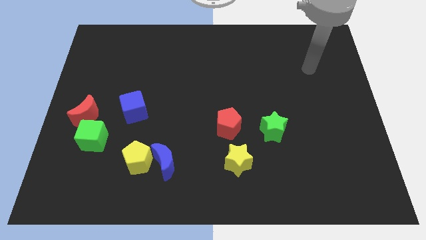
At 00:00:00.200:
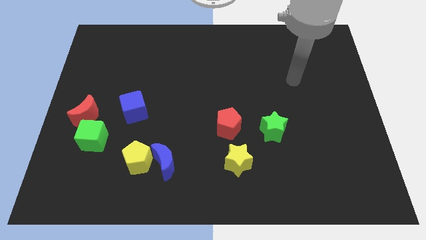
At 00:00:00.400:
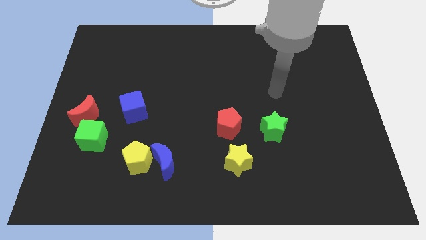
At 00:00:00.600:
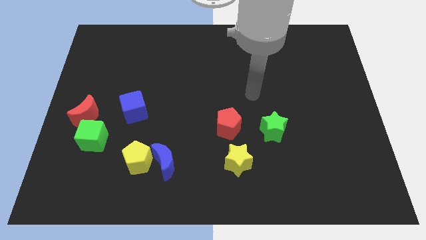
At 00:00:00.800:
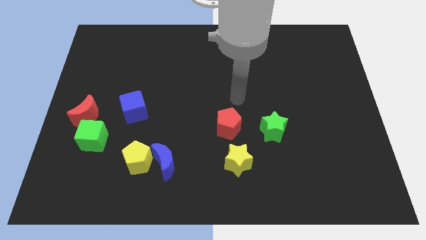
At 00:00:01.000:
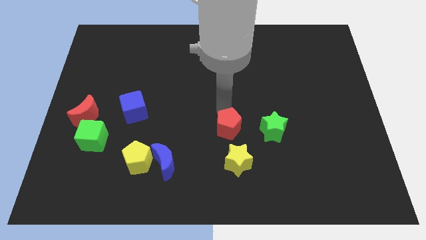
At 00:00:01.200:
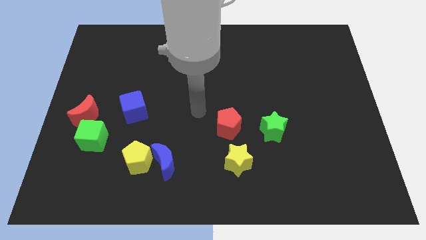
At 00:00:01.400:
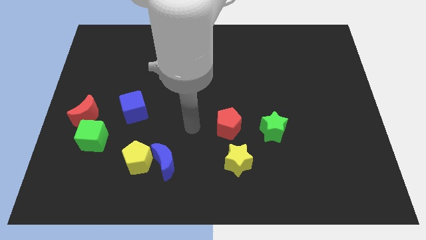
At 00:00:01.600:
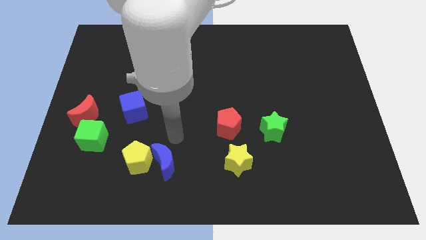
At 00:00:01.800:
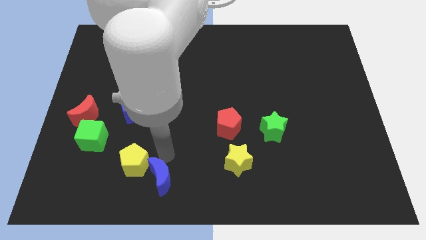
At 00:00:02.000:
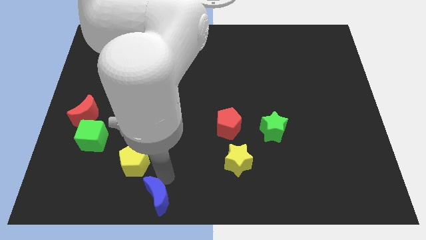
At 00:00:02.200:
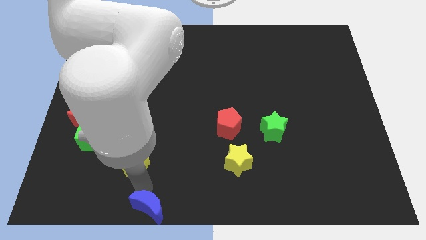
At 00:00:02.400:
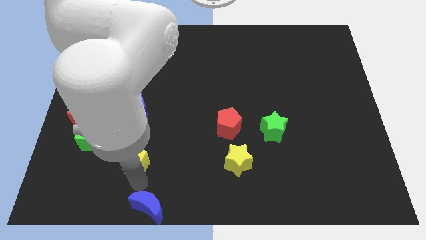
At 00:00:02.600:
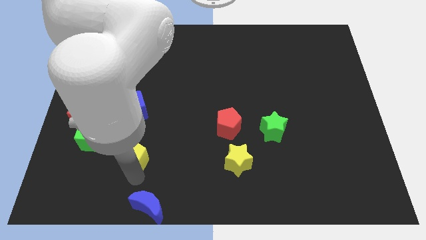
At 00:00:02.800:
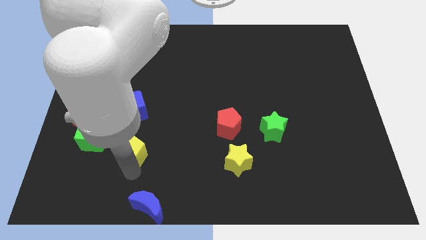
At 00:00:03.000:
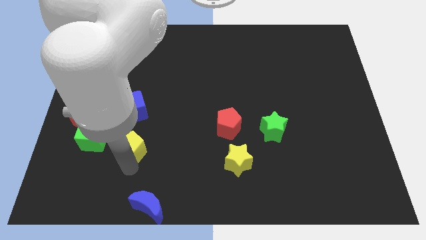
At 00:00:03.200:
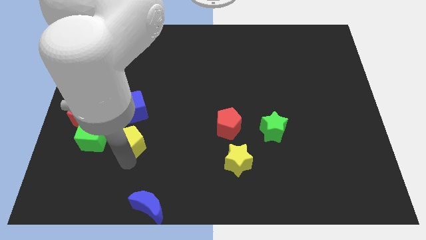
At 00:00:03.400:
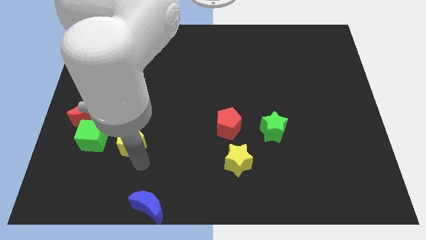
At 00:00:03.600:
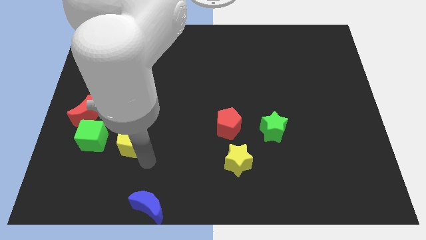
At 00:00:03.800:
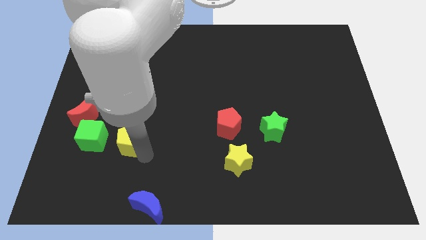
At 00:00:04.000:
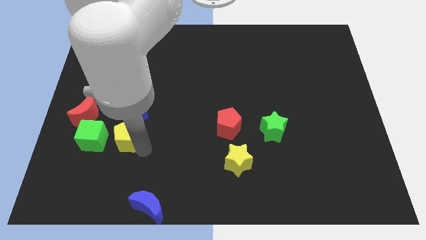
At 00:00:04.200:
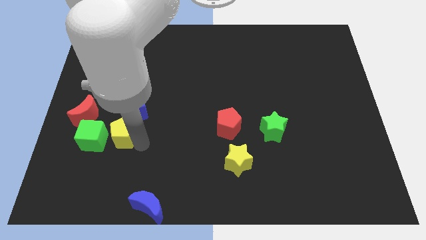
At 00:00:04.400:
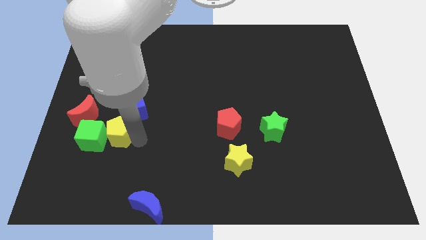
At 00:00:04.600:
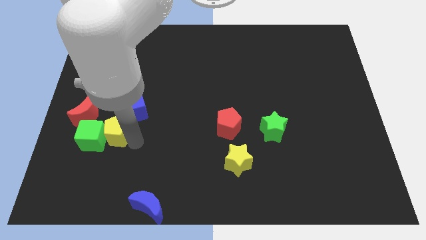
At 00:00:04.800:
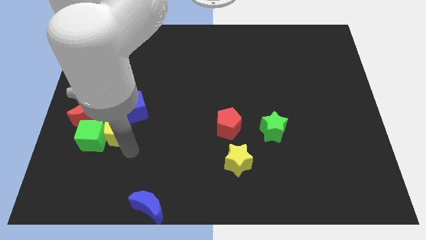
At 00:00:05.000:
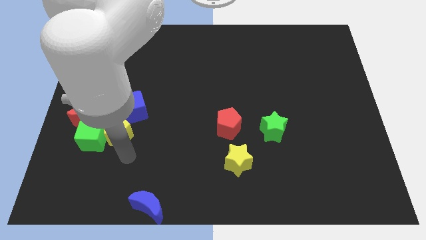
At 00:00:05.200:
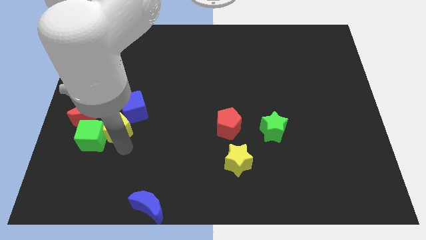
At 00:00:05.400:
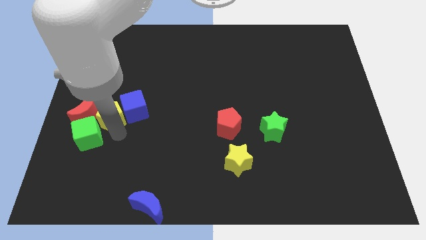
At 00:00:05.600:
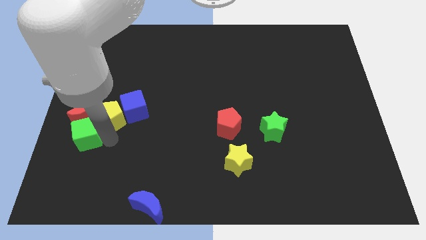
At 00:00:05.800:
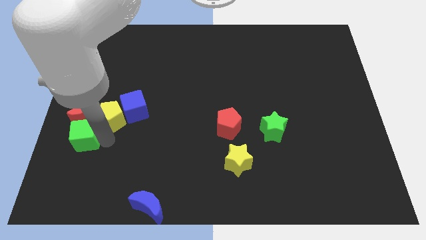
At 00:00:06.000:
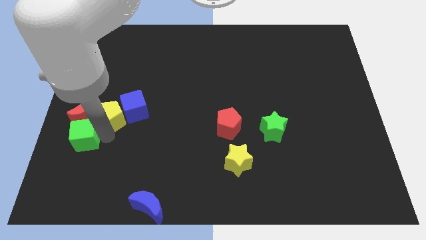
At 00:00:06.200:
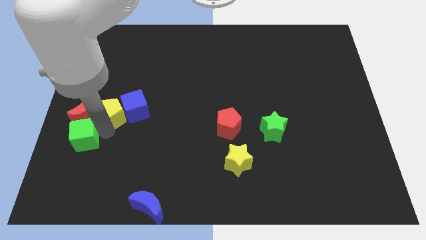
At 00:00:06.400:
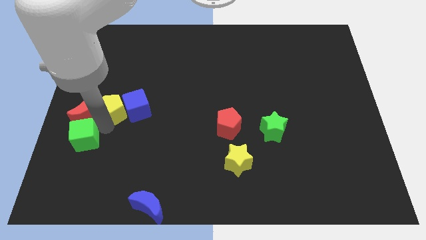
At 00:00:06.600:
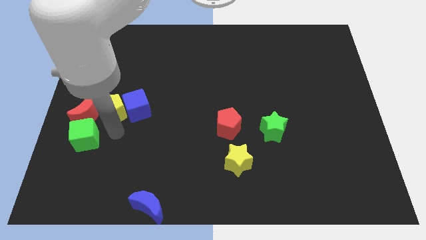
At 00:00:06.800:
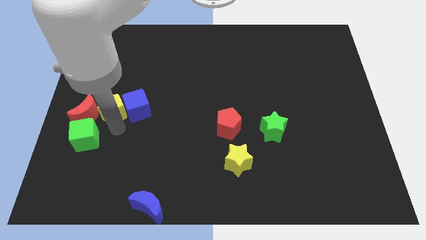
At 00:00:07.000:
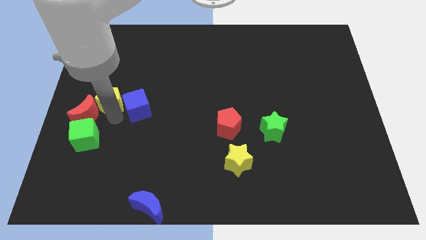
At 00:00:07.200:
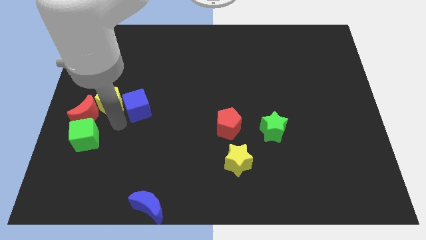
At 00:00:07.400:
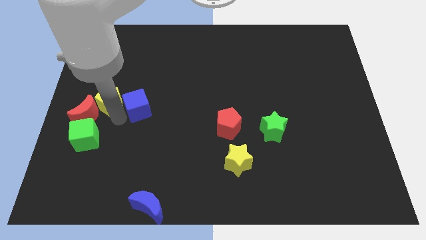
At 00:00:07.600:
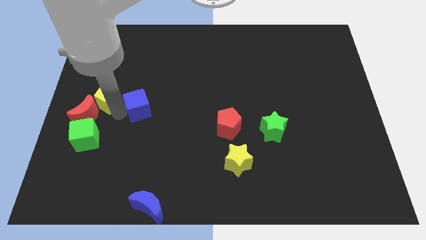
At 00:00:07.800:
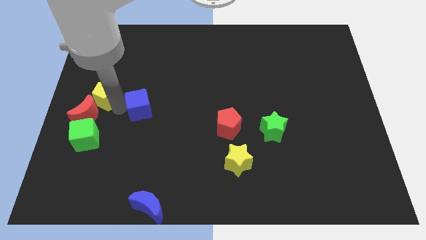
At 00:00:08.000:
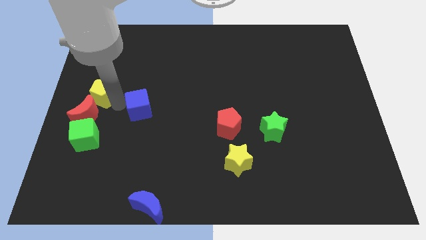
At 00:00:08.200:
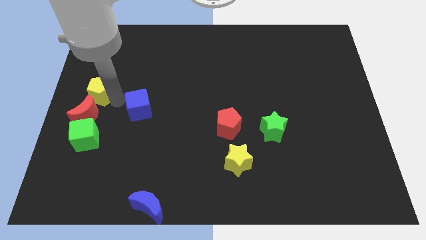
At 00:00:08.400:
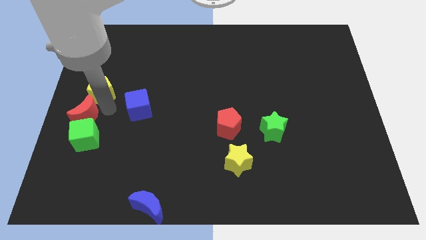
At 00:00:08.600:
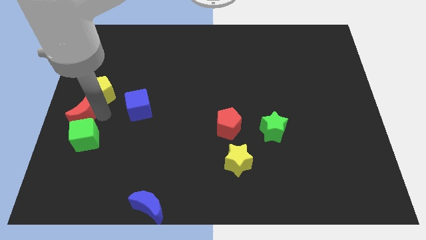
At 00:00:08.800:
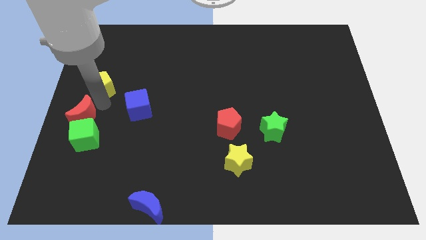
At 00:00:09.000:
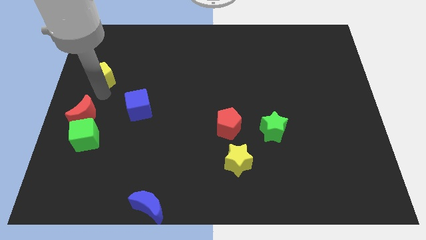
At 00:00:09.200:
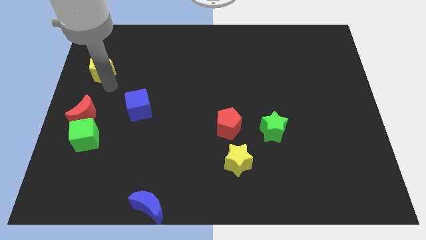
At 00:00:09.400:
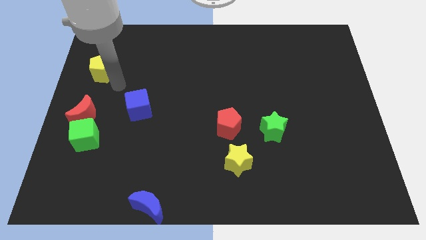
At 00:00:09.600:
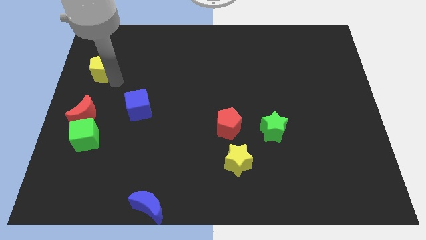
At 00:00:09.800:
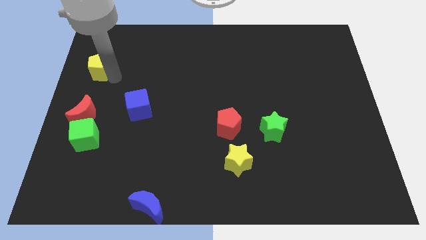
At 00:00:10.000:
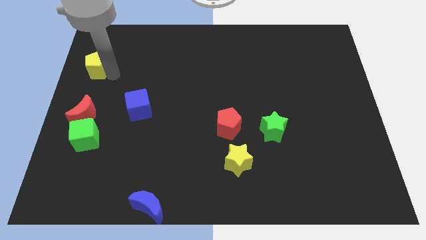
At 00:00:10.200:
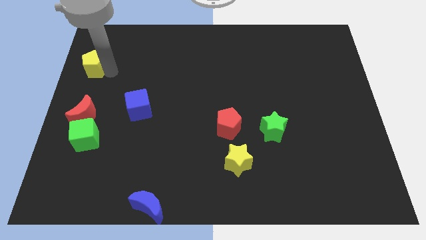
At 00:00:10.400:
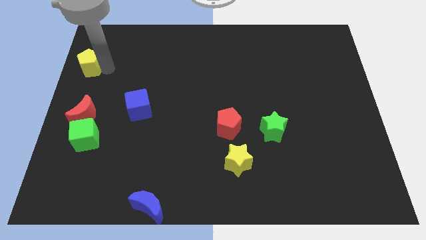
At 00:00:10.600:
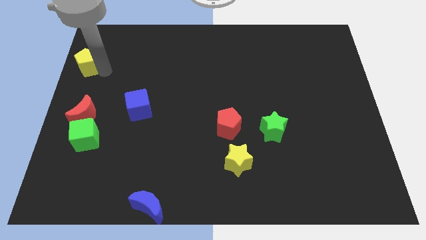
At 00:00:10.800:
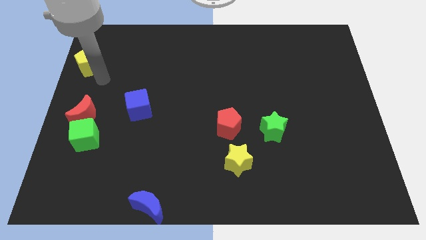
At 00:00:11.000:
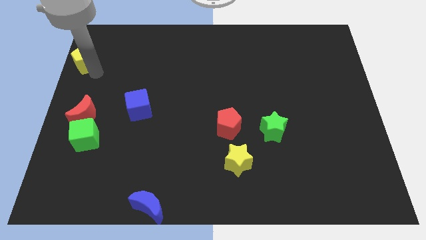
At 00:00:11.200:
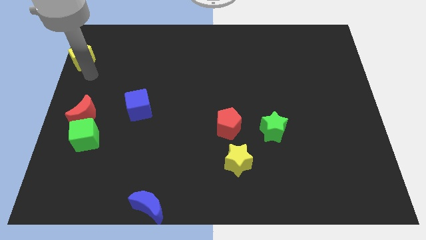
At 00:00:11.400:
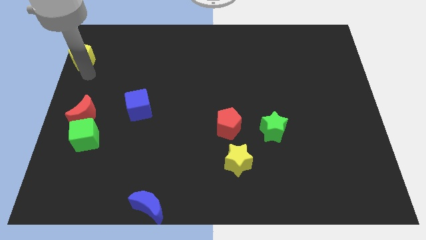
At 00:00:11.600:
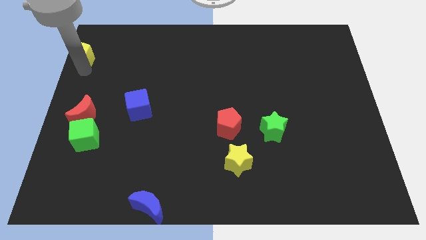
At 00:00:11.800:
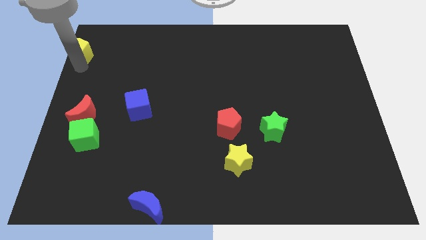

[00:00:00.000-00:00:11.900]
put the yellow pentagon to the top left corner

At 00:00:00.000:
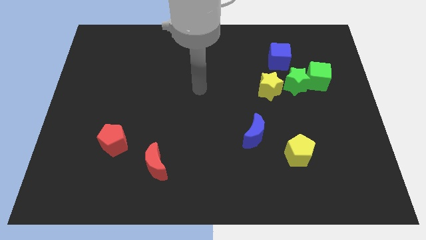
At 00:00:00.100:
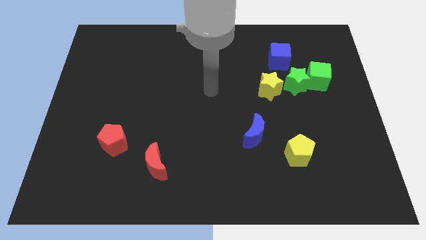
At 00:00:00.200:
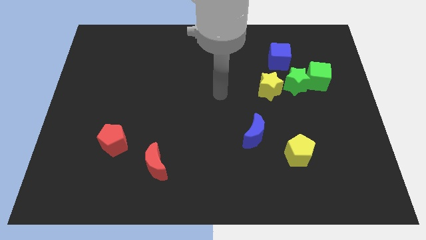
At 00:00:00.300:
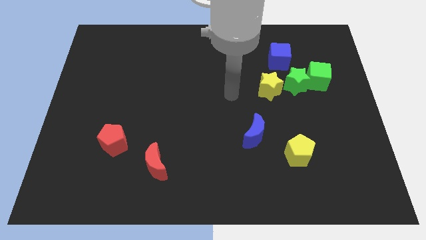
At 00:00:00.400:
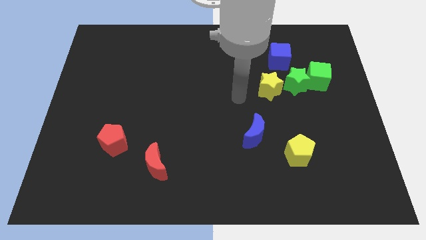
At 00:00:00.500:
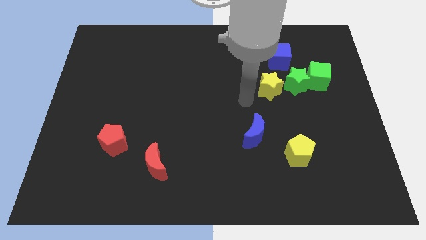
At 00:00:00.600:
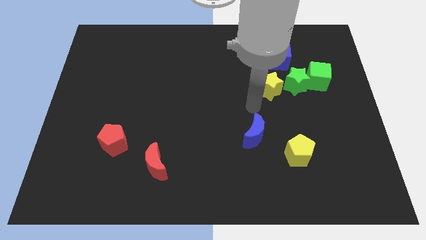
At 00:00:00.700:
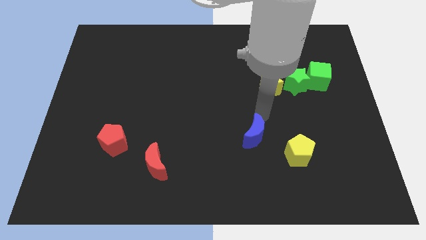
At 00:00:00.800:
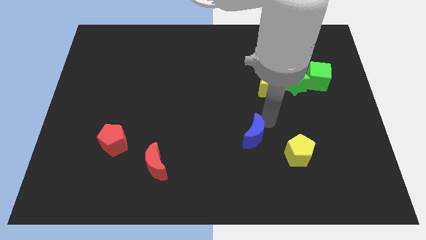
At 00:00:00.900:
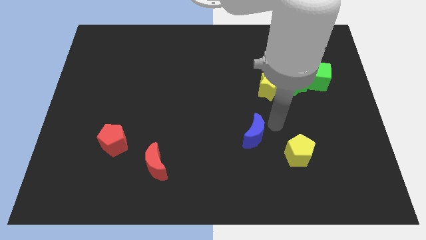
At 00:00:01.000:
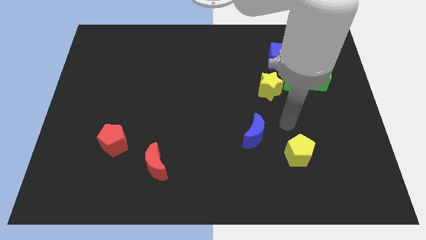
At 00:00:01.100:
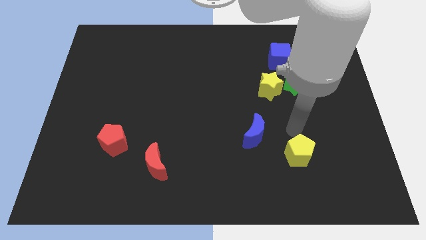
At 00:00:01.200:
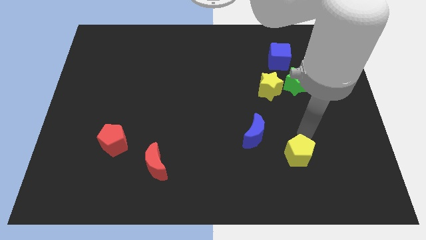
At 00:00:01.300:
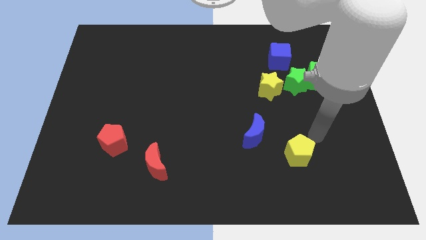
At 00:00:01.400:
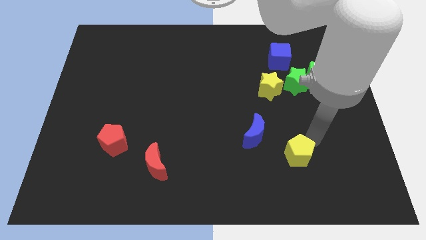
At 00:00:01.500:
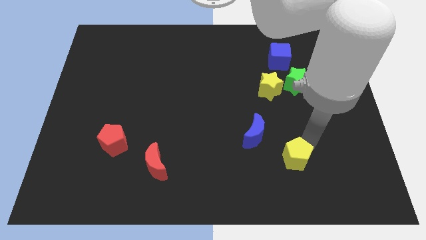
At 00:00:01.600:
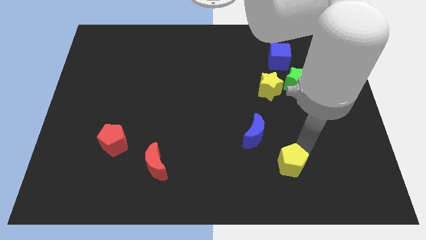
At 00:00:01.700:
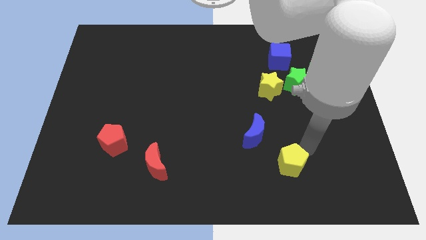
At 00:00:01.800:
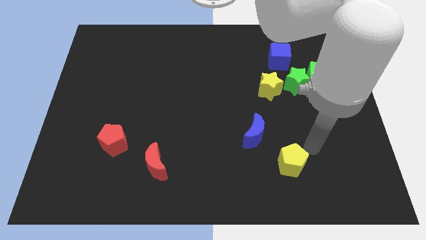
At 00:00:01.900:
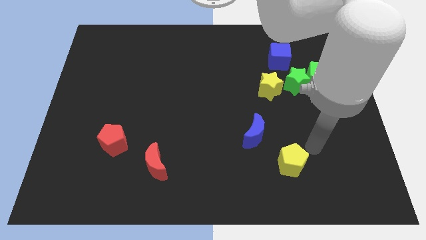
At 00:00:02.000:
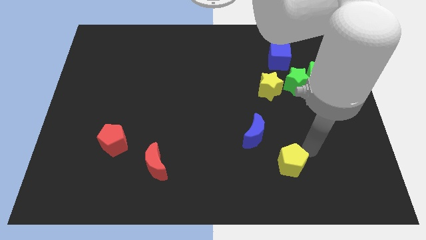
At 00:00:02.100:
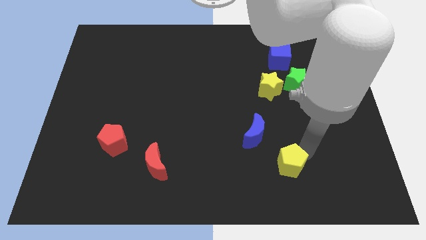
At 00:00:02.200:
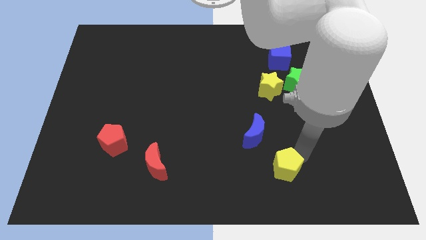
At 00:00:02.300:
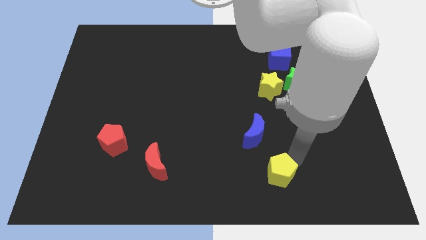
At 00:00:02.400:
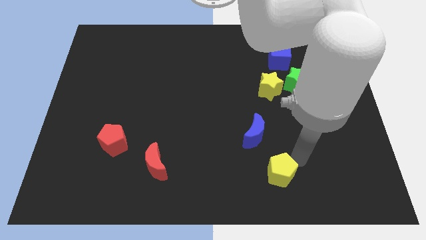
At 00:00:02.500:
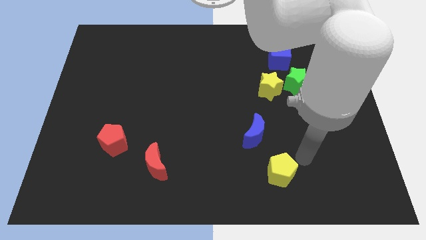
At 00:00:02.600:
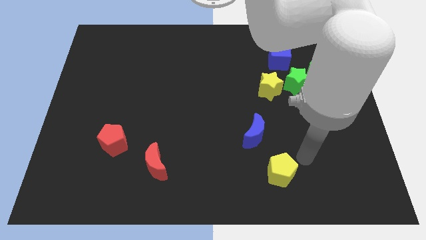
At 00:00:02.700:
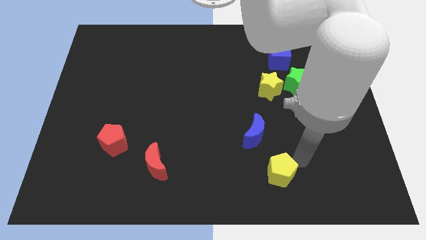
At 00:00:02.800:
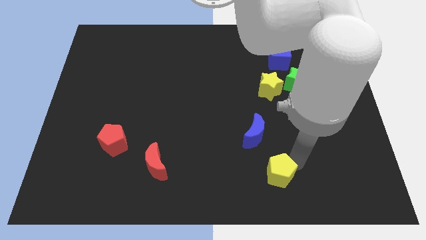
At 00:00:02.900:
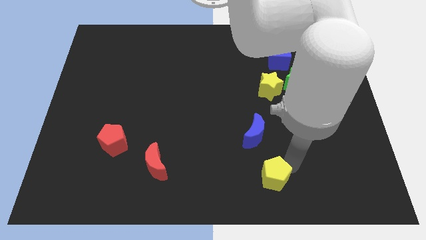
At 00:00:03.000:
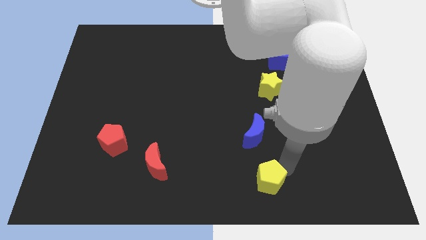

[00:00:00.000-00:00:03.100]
move the yellow pentagon to the bottom side
